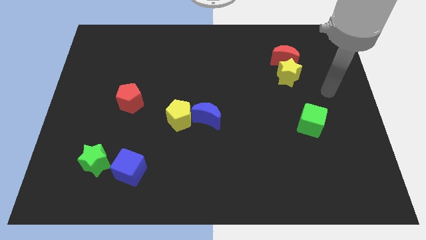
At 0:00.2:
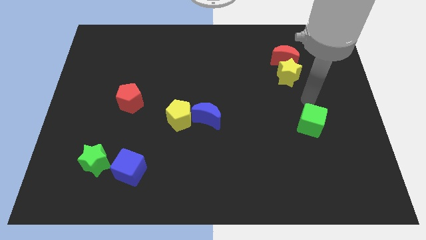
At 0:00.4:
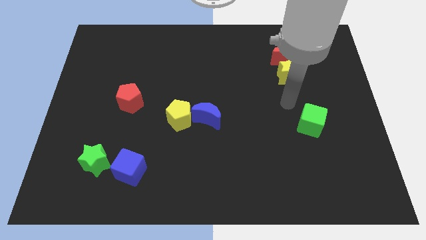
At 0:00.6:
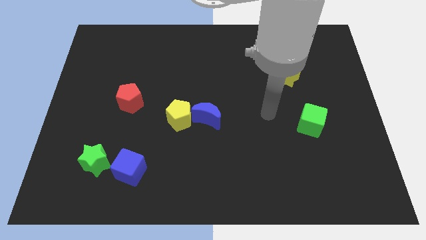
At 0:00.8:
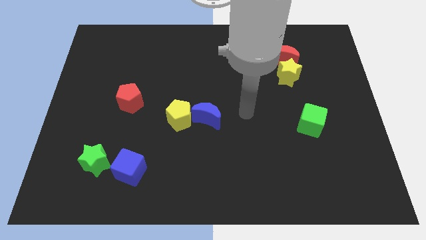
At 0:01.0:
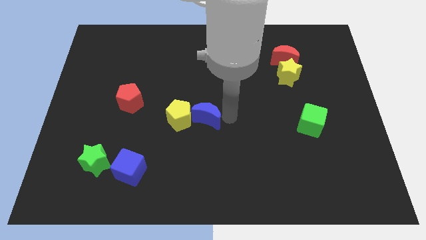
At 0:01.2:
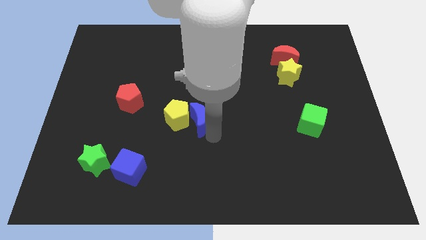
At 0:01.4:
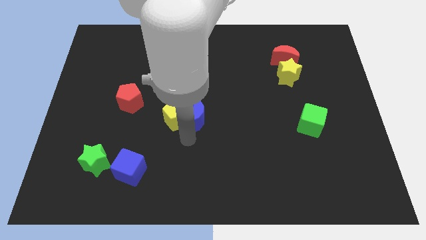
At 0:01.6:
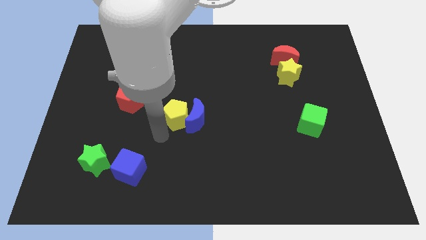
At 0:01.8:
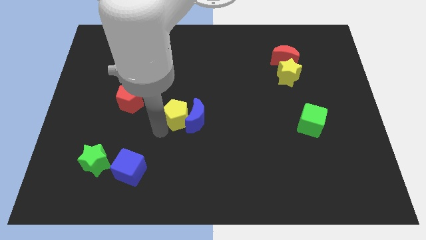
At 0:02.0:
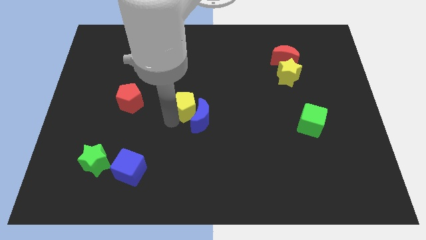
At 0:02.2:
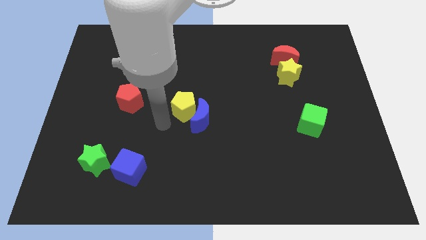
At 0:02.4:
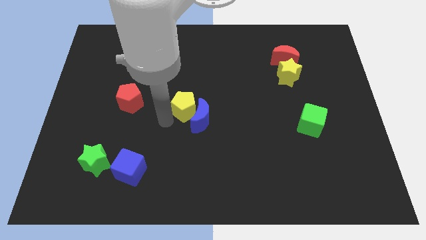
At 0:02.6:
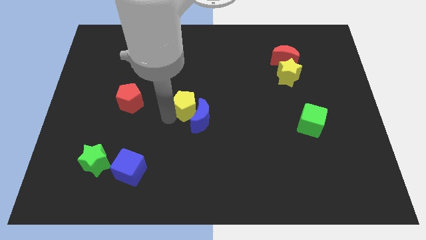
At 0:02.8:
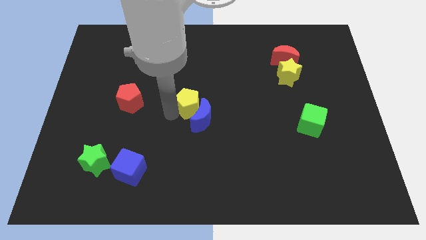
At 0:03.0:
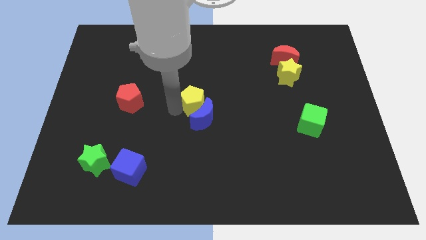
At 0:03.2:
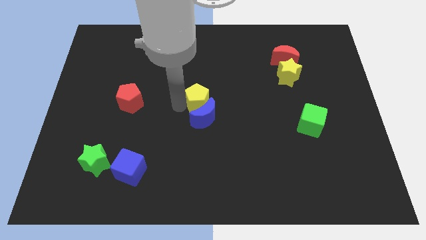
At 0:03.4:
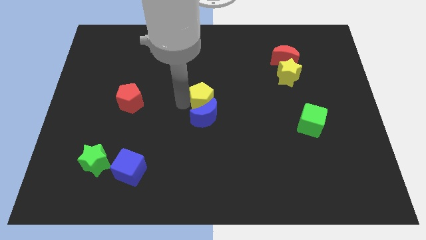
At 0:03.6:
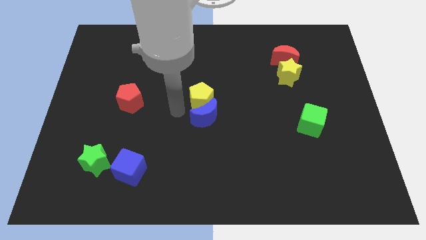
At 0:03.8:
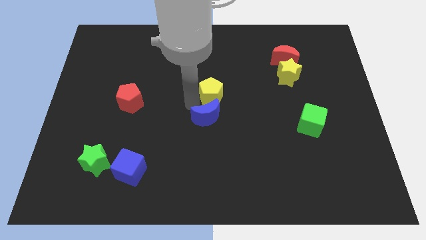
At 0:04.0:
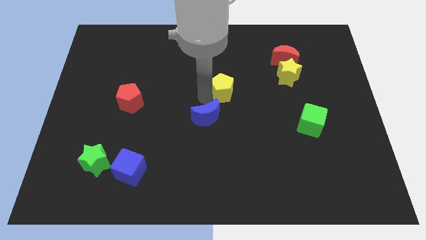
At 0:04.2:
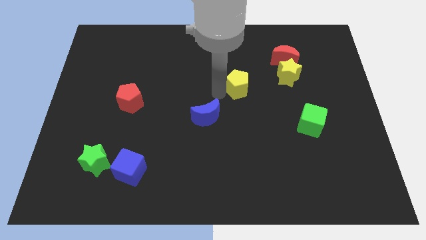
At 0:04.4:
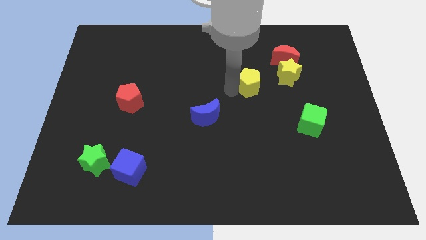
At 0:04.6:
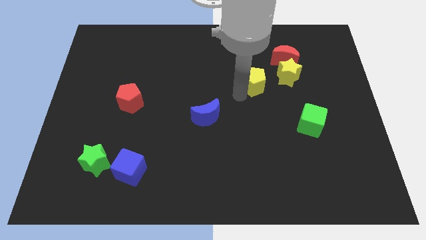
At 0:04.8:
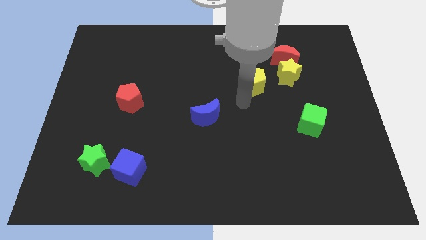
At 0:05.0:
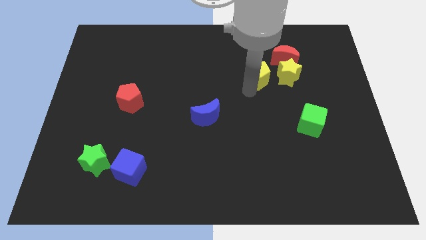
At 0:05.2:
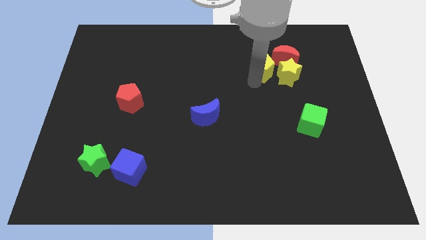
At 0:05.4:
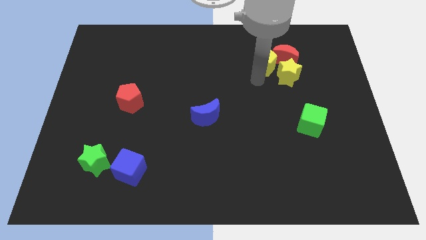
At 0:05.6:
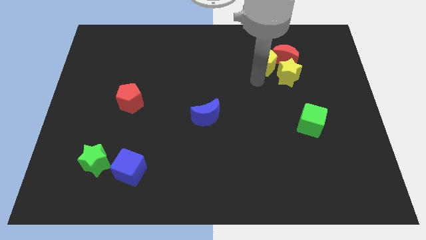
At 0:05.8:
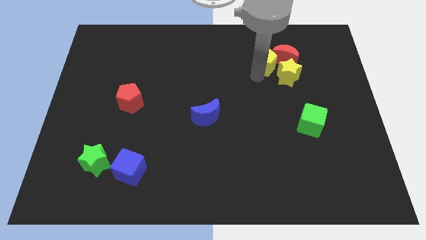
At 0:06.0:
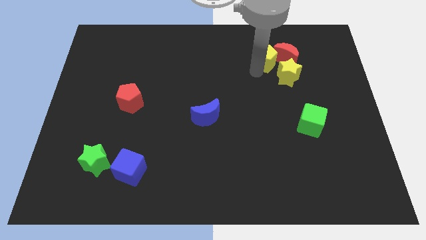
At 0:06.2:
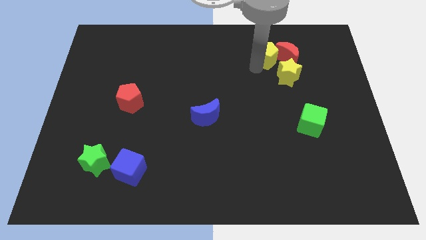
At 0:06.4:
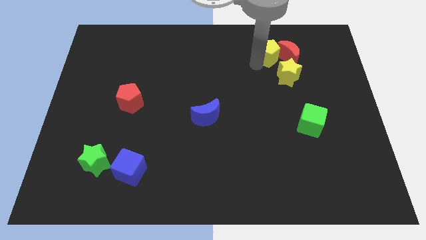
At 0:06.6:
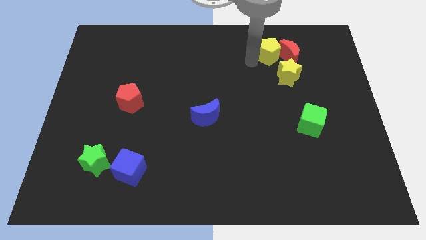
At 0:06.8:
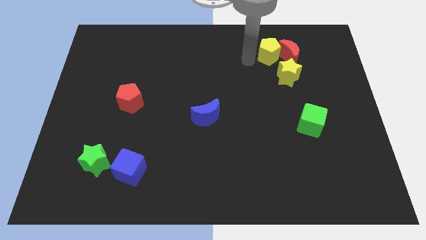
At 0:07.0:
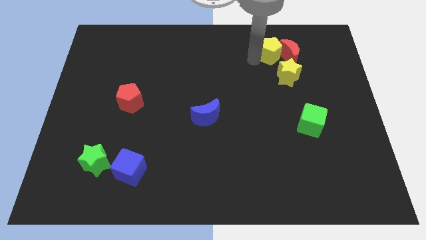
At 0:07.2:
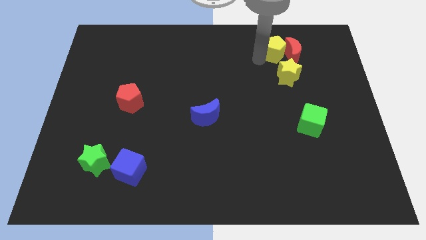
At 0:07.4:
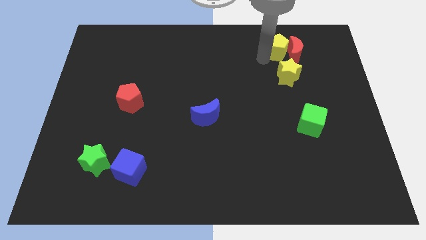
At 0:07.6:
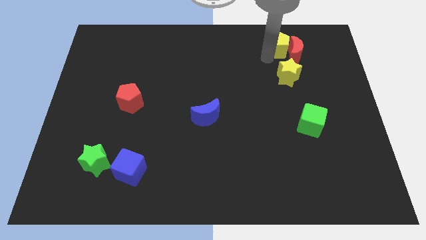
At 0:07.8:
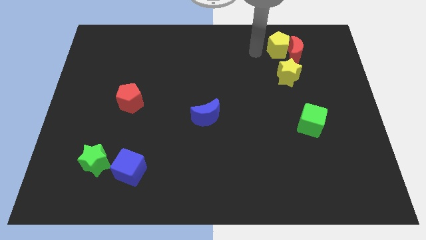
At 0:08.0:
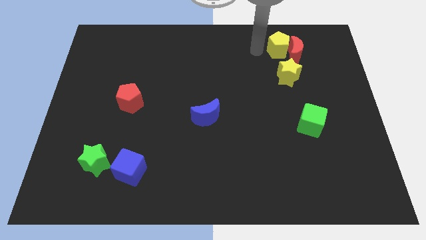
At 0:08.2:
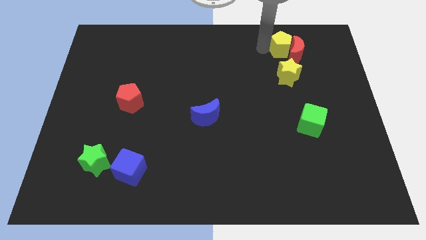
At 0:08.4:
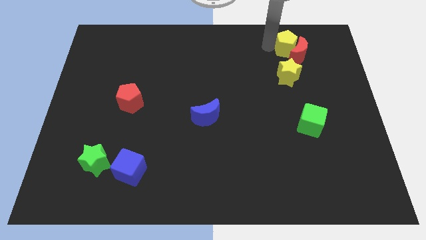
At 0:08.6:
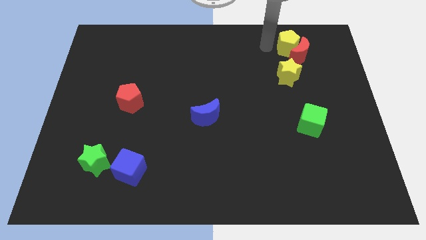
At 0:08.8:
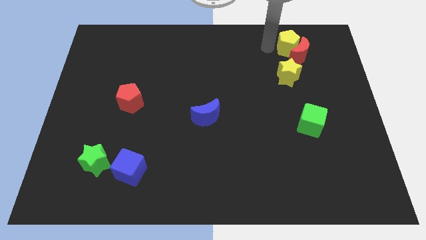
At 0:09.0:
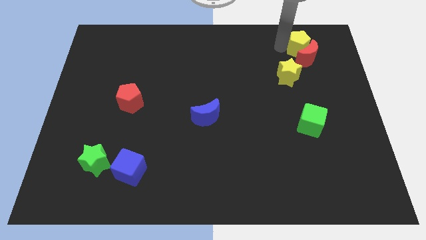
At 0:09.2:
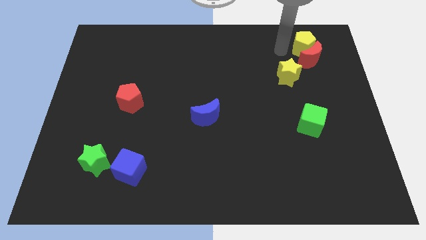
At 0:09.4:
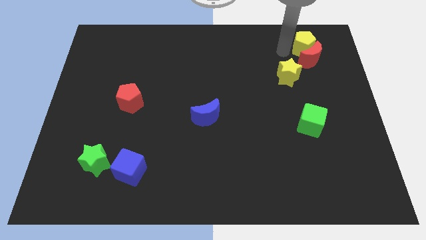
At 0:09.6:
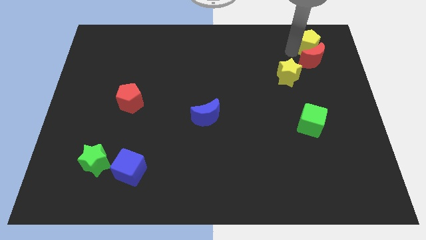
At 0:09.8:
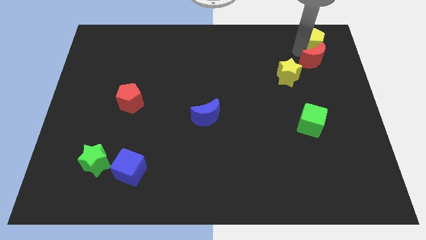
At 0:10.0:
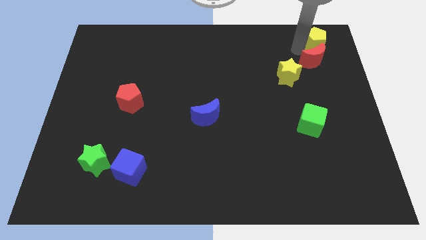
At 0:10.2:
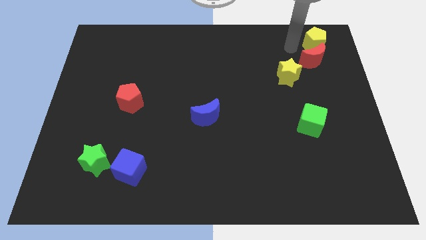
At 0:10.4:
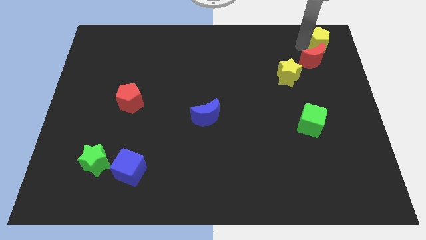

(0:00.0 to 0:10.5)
move the yellow pentagon to the top right corner
